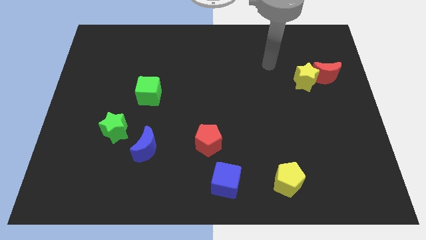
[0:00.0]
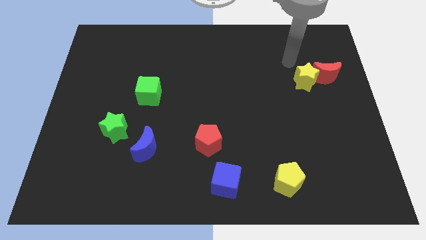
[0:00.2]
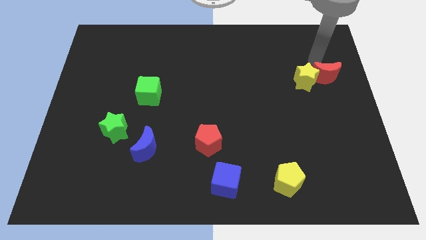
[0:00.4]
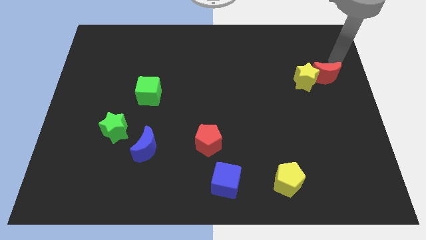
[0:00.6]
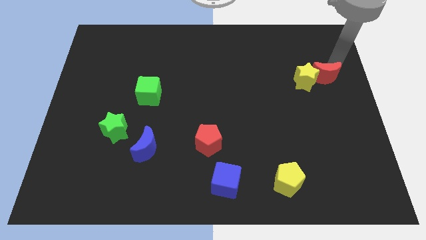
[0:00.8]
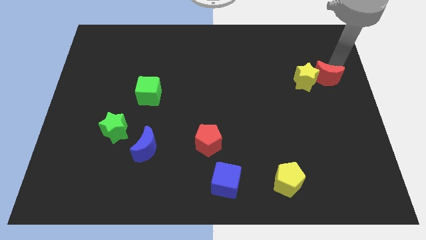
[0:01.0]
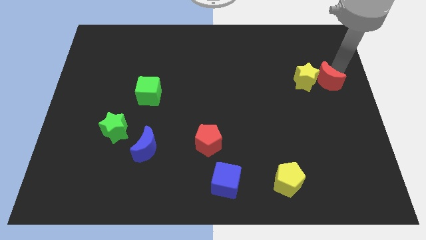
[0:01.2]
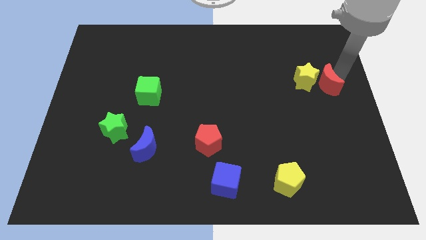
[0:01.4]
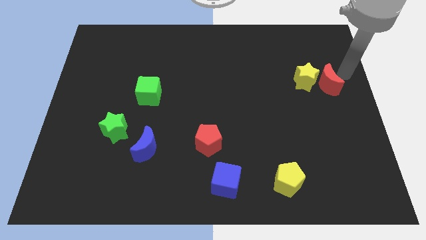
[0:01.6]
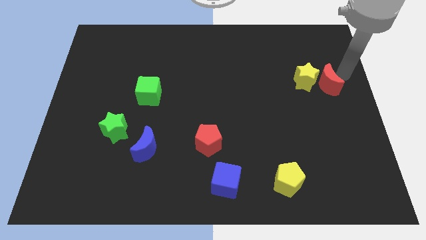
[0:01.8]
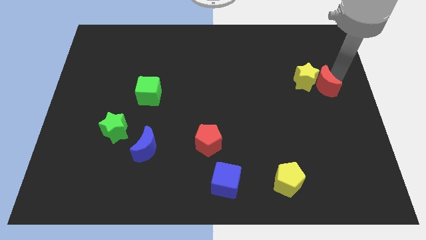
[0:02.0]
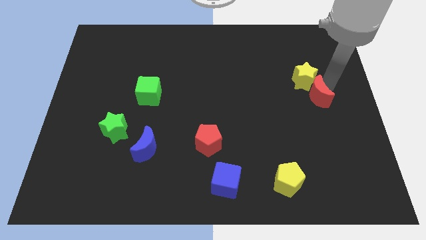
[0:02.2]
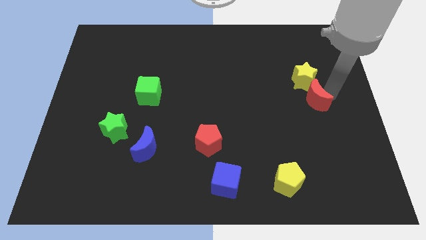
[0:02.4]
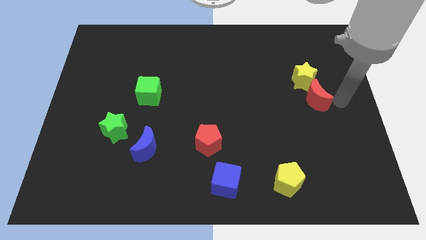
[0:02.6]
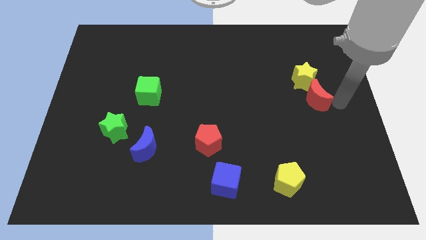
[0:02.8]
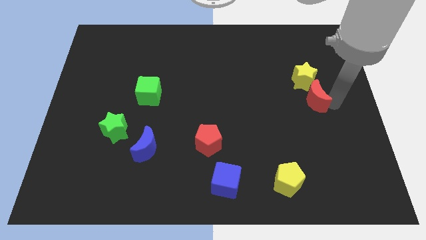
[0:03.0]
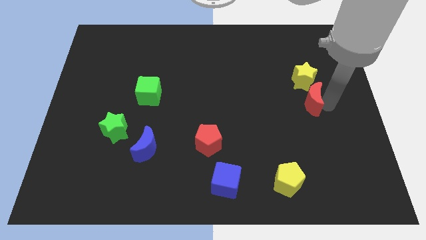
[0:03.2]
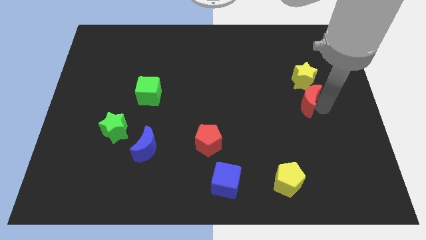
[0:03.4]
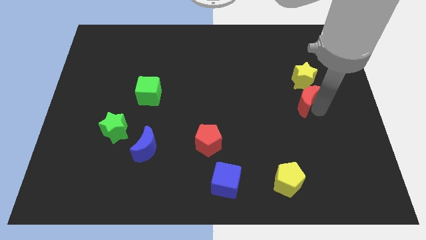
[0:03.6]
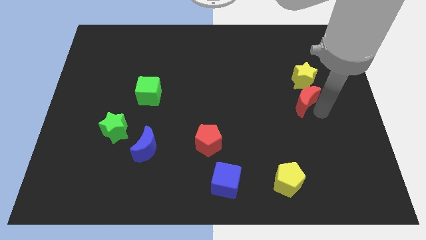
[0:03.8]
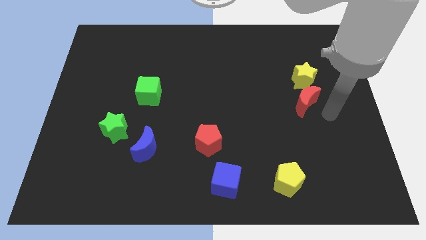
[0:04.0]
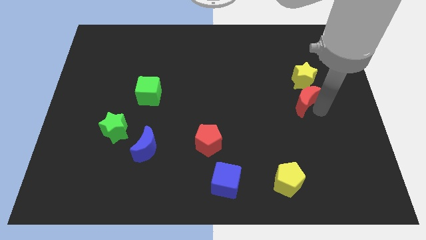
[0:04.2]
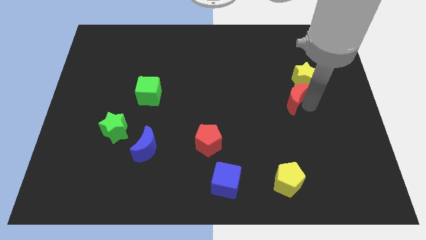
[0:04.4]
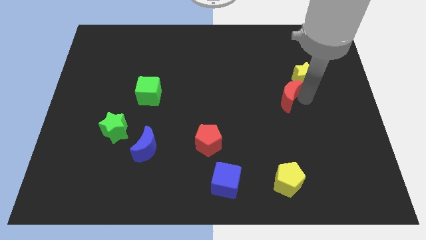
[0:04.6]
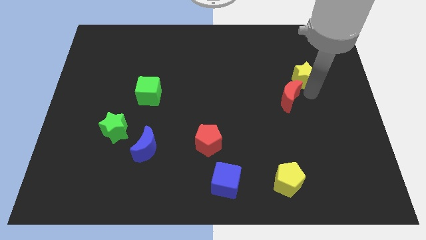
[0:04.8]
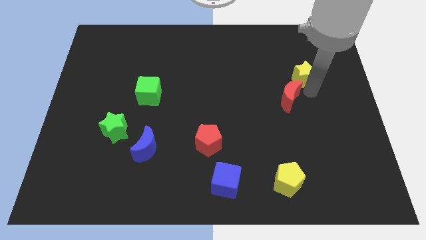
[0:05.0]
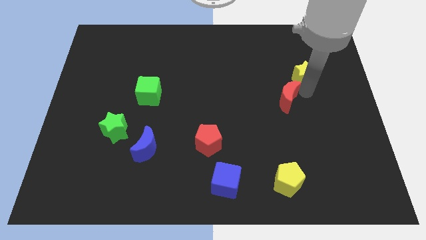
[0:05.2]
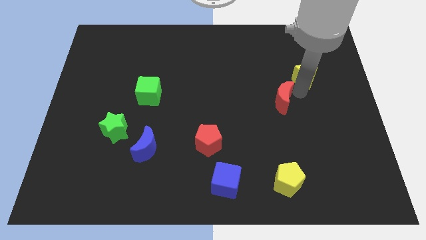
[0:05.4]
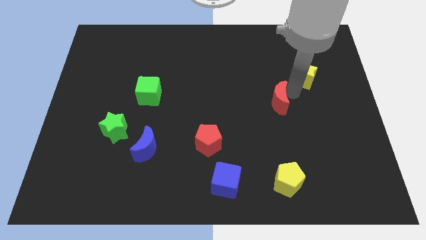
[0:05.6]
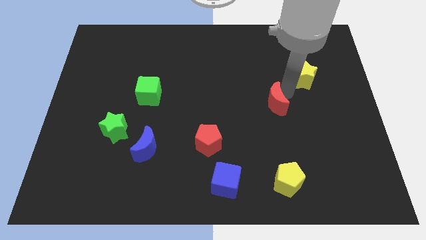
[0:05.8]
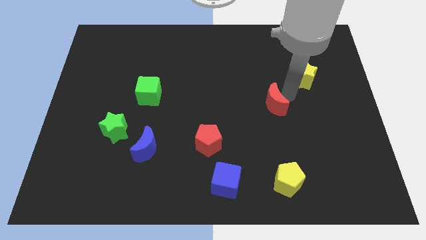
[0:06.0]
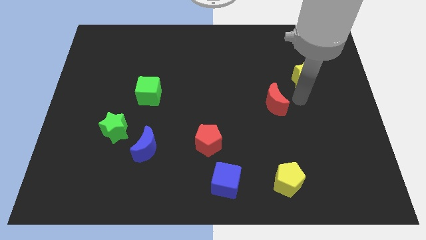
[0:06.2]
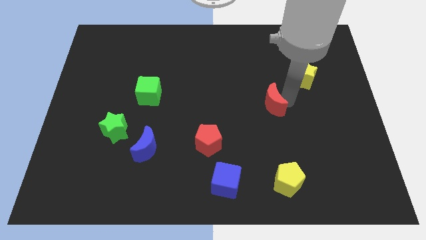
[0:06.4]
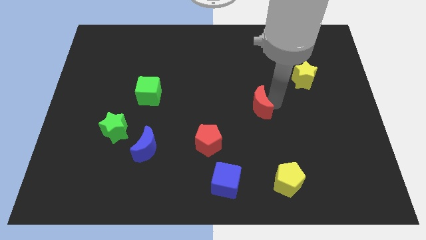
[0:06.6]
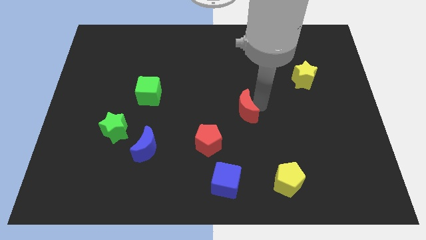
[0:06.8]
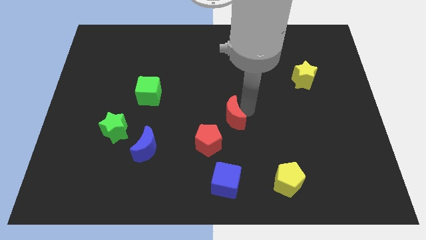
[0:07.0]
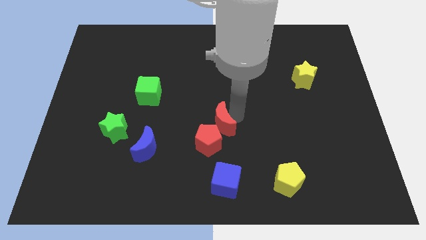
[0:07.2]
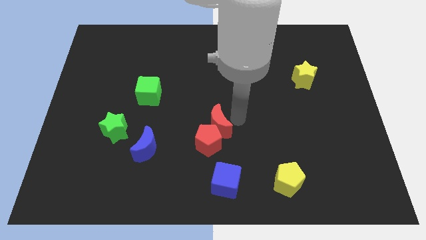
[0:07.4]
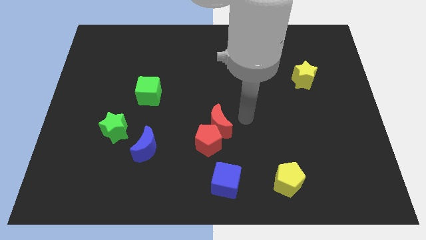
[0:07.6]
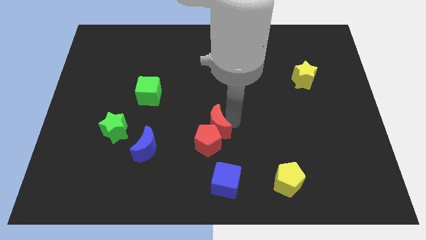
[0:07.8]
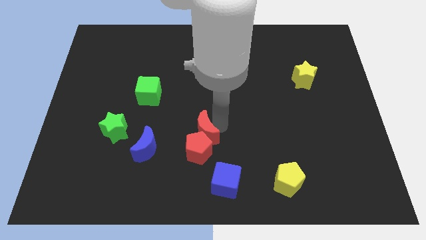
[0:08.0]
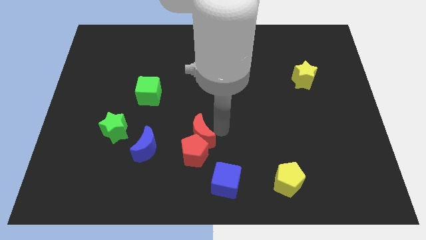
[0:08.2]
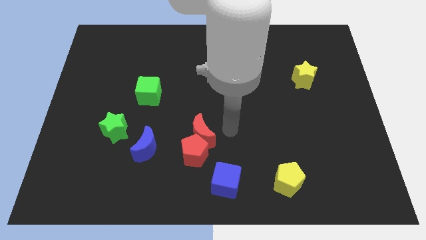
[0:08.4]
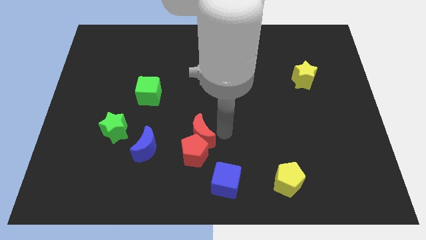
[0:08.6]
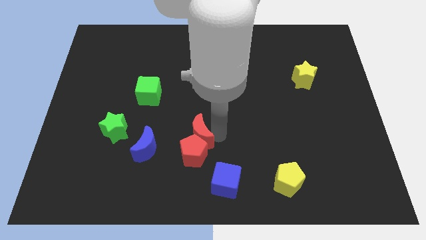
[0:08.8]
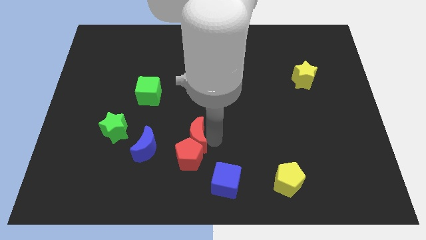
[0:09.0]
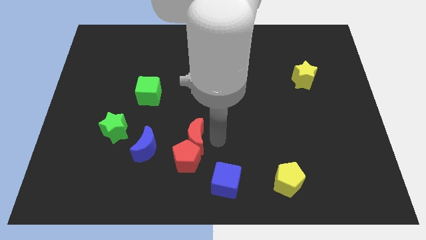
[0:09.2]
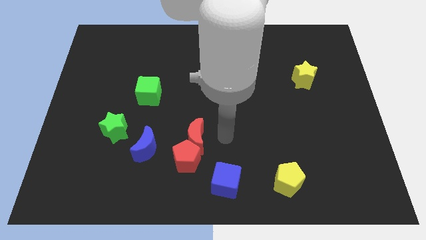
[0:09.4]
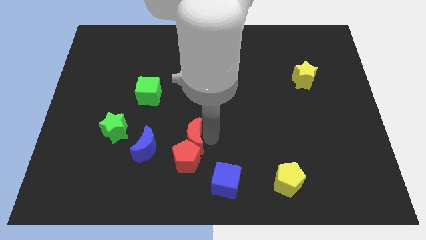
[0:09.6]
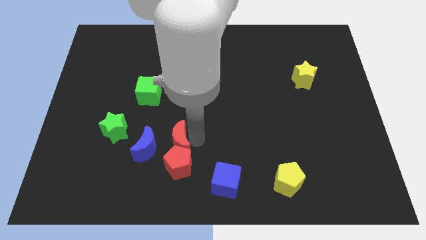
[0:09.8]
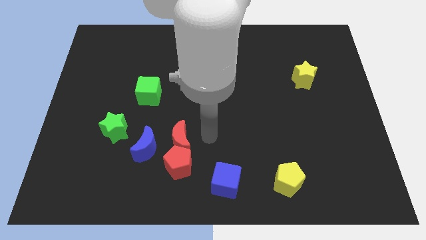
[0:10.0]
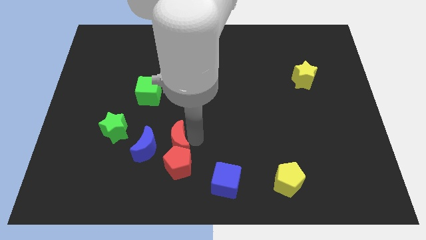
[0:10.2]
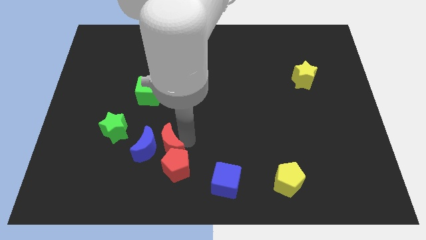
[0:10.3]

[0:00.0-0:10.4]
put the red moon towards the blue moon

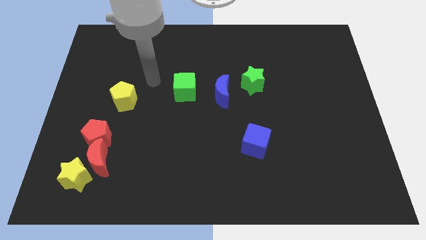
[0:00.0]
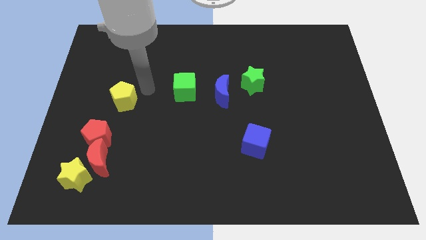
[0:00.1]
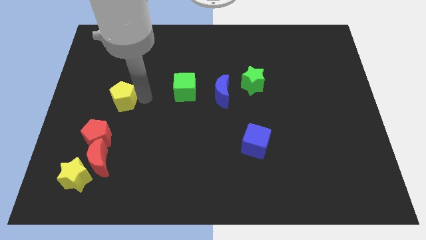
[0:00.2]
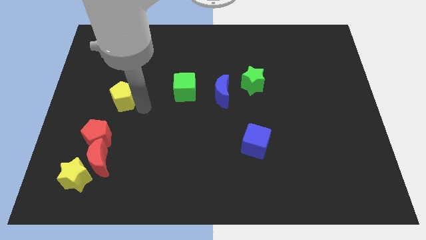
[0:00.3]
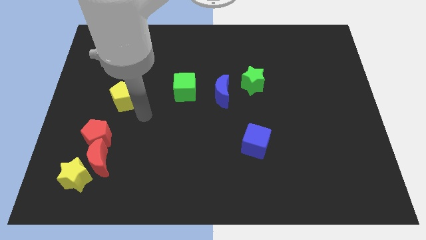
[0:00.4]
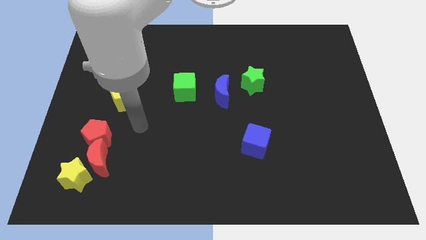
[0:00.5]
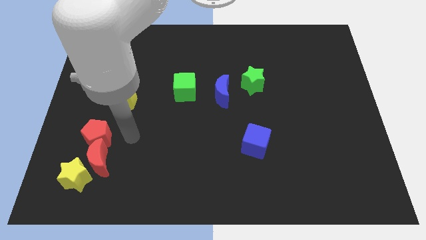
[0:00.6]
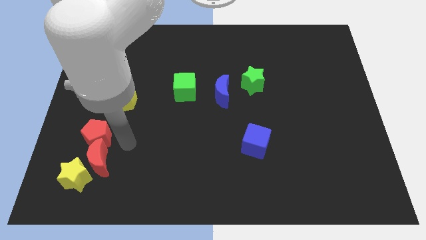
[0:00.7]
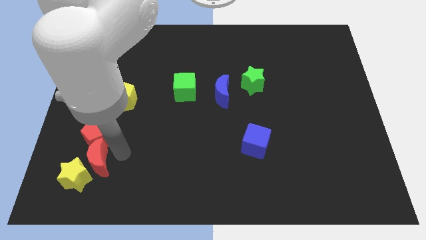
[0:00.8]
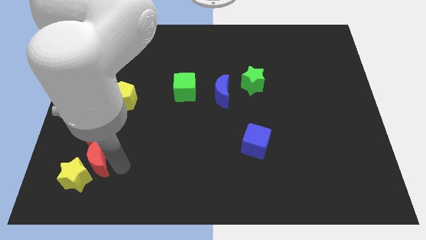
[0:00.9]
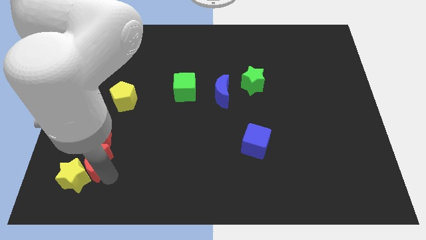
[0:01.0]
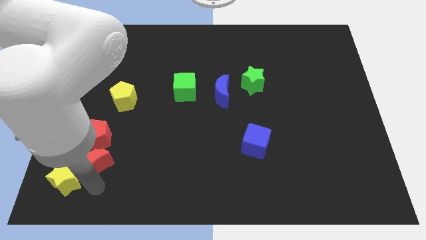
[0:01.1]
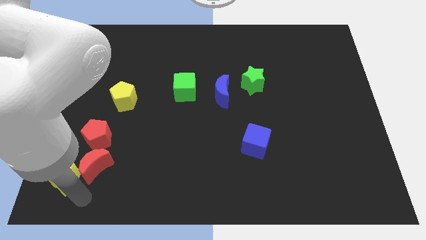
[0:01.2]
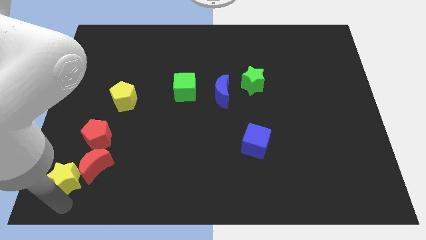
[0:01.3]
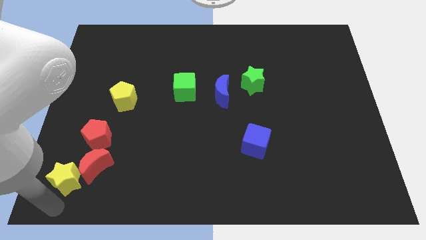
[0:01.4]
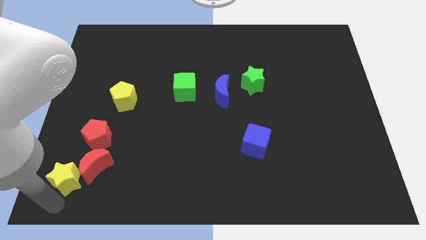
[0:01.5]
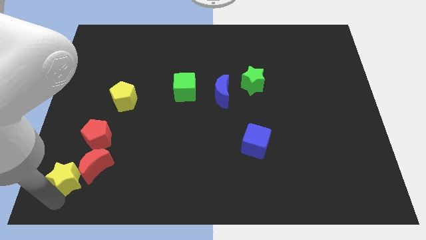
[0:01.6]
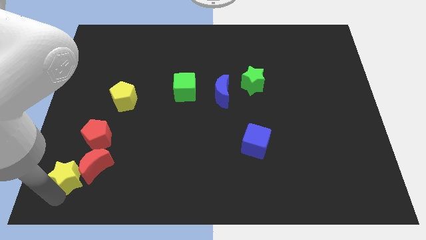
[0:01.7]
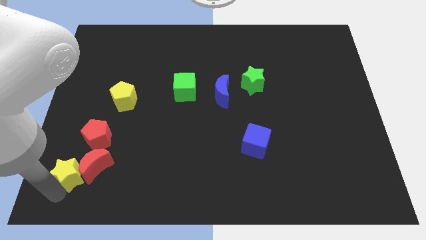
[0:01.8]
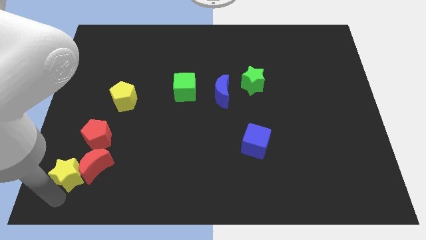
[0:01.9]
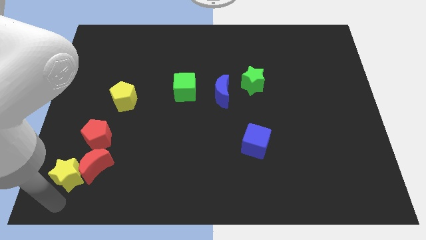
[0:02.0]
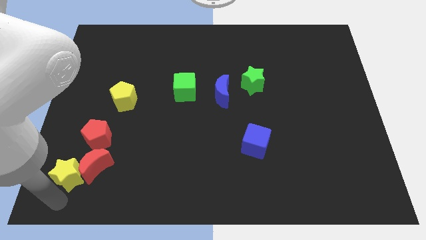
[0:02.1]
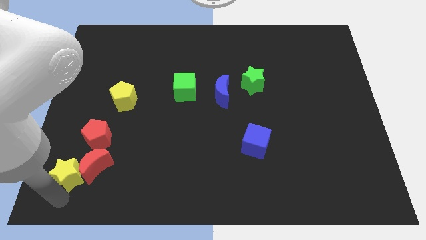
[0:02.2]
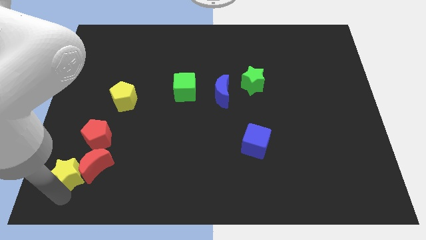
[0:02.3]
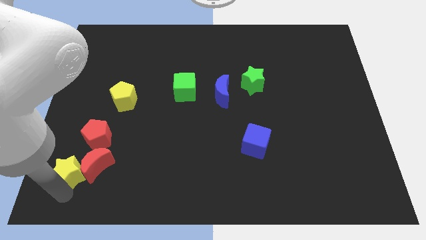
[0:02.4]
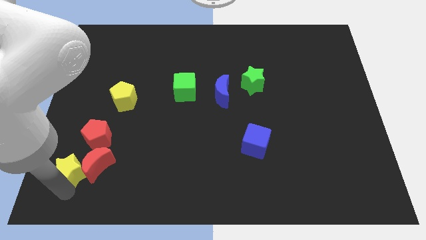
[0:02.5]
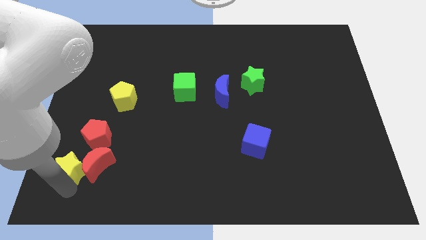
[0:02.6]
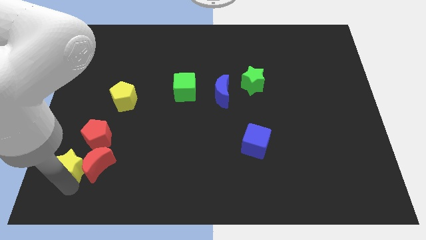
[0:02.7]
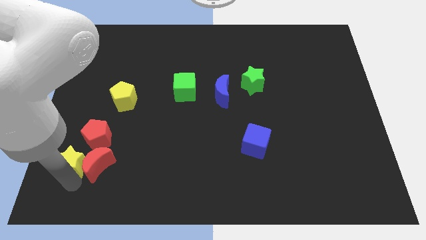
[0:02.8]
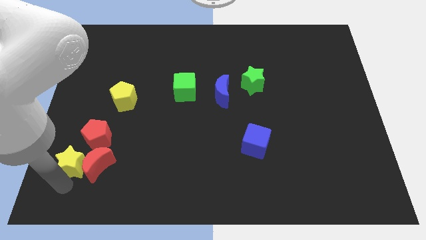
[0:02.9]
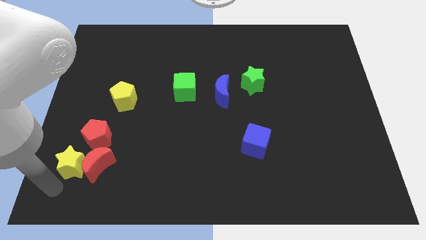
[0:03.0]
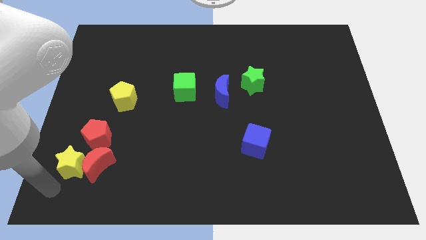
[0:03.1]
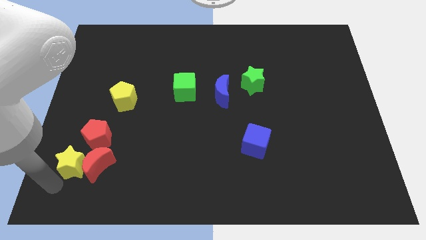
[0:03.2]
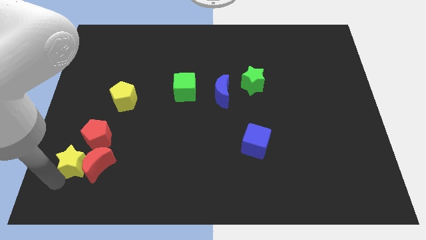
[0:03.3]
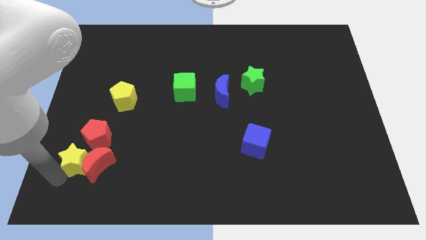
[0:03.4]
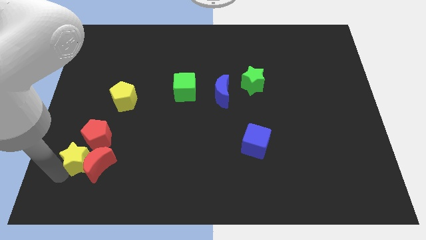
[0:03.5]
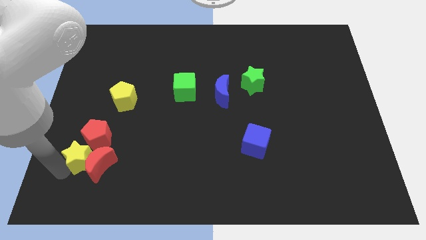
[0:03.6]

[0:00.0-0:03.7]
push the yellow star towards the red pentagon
